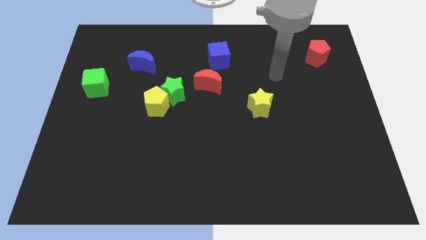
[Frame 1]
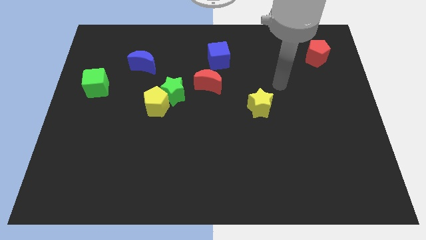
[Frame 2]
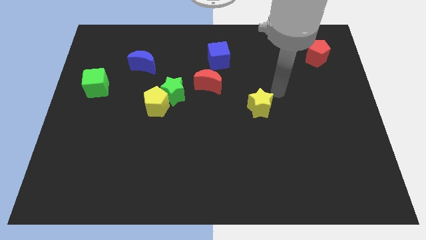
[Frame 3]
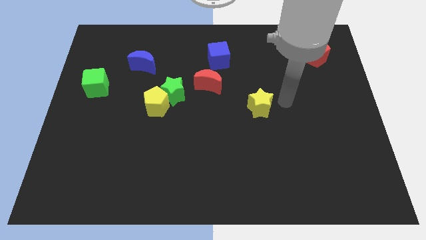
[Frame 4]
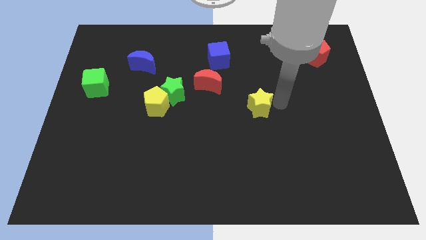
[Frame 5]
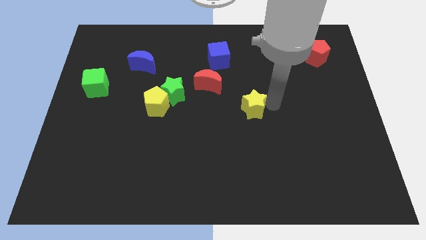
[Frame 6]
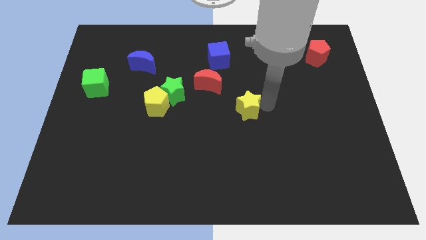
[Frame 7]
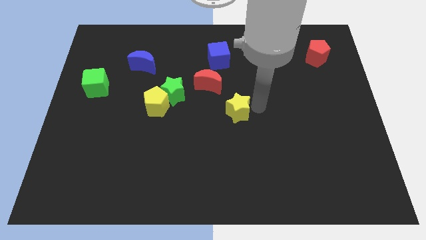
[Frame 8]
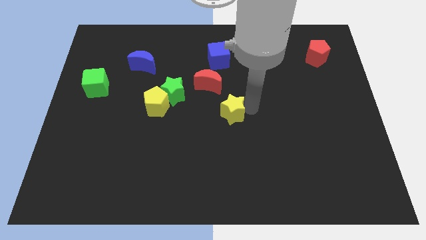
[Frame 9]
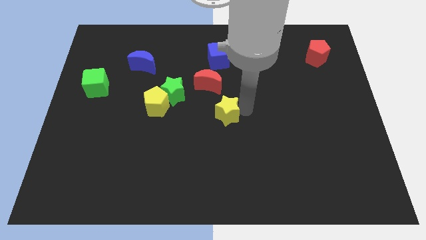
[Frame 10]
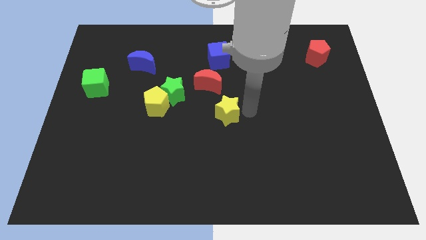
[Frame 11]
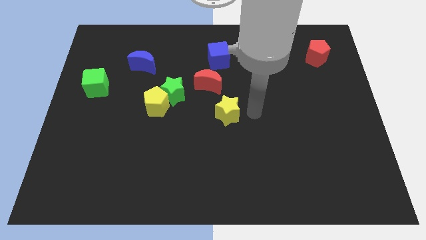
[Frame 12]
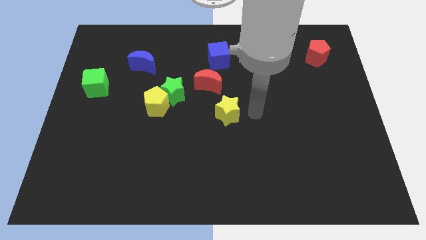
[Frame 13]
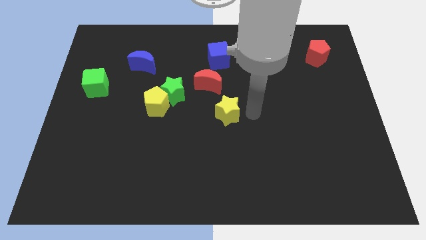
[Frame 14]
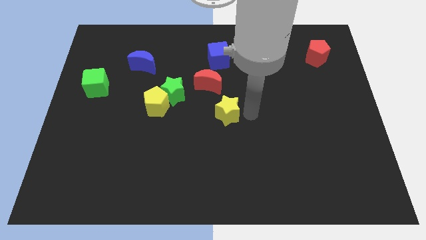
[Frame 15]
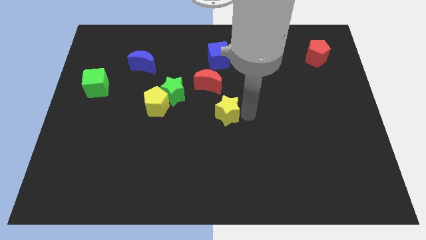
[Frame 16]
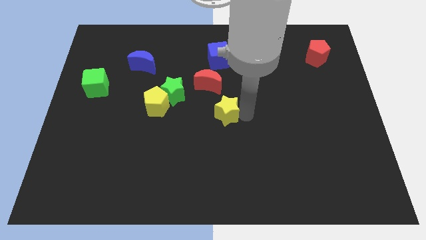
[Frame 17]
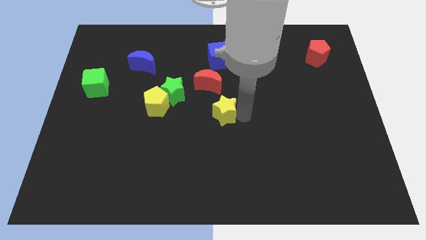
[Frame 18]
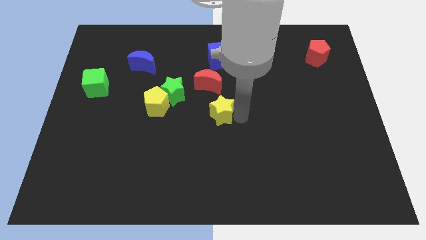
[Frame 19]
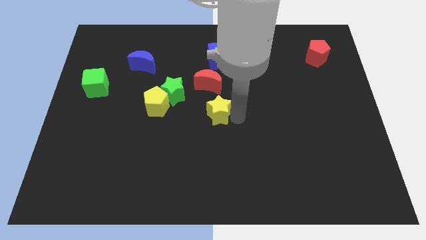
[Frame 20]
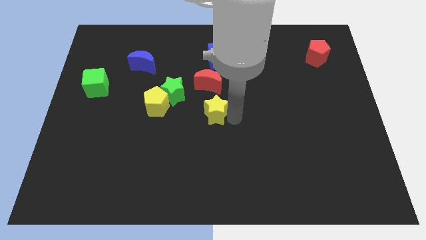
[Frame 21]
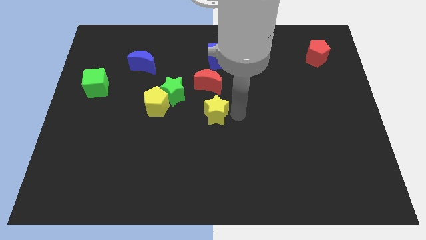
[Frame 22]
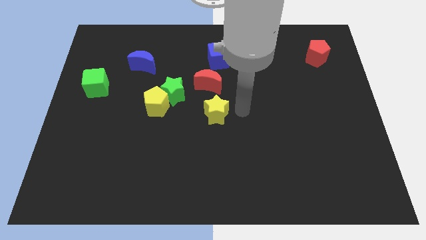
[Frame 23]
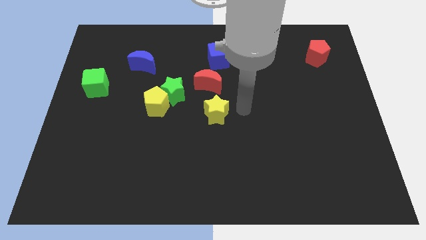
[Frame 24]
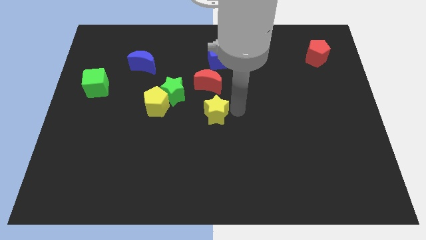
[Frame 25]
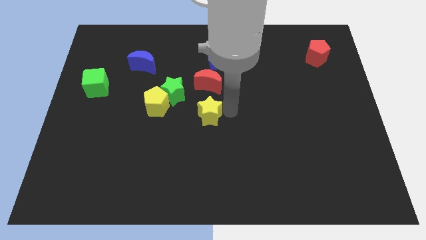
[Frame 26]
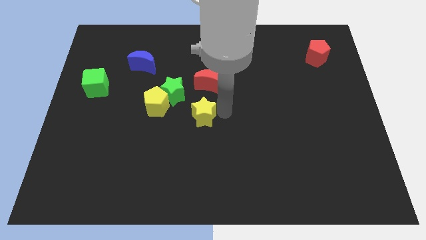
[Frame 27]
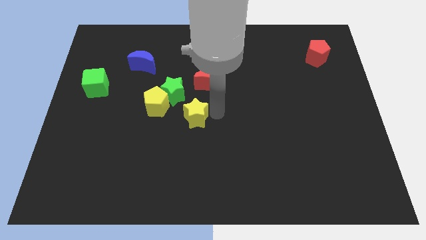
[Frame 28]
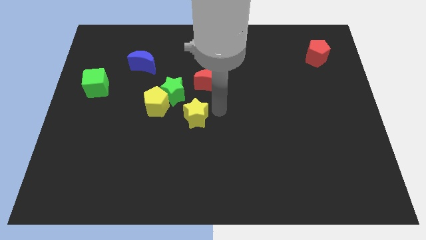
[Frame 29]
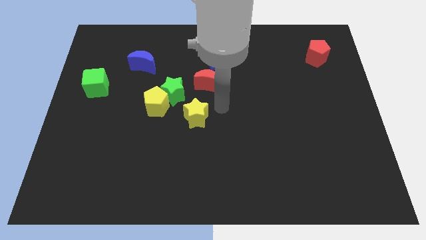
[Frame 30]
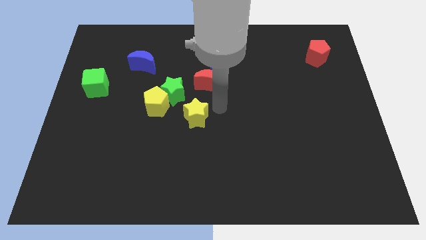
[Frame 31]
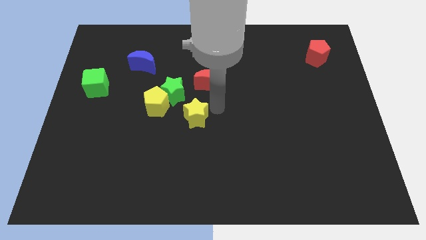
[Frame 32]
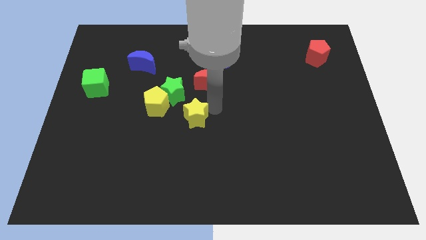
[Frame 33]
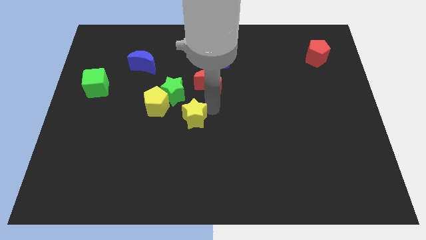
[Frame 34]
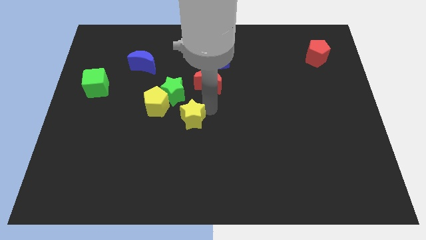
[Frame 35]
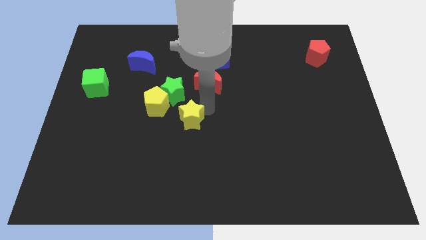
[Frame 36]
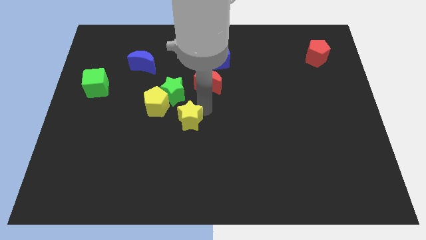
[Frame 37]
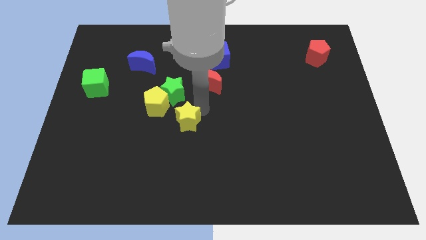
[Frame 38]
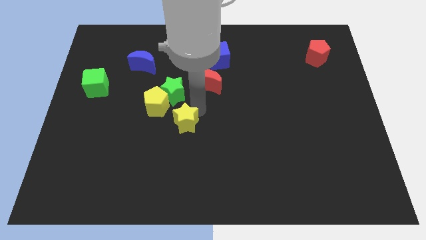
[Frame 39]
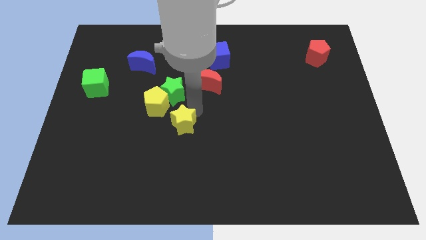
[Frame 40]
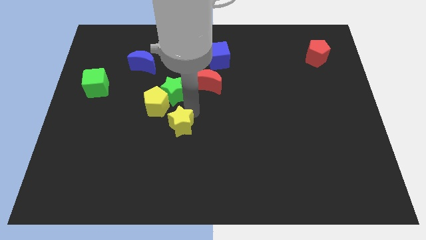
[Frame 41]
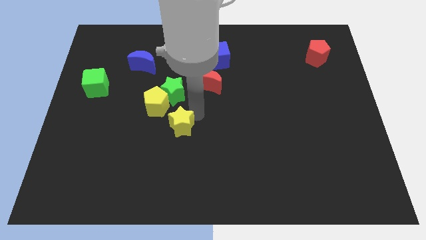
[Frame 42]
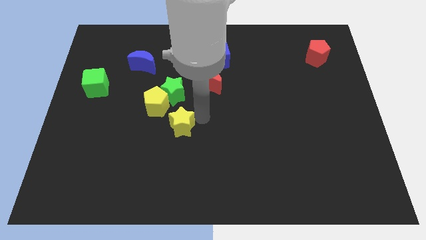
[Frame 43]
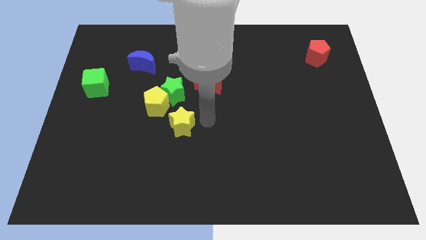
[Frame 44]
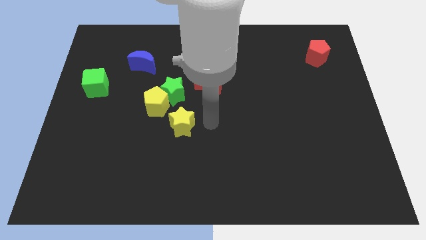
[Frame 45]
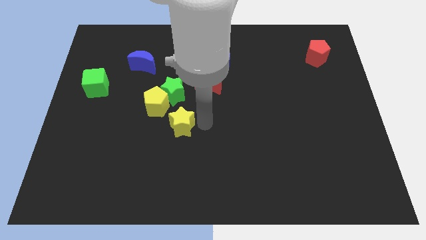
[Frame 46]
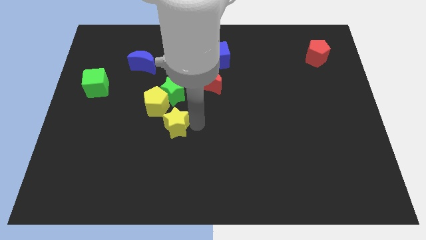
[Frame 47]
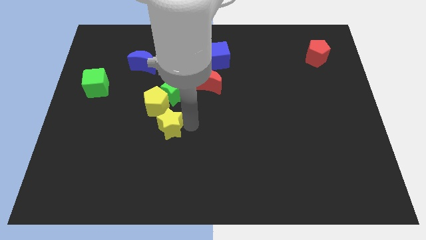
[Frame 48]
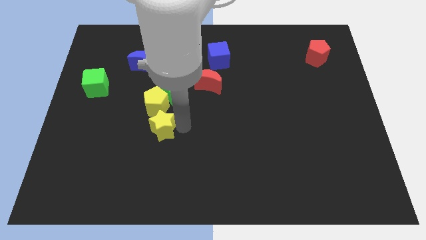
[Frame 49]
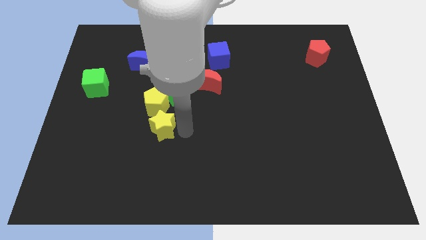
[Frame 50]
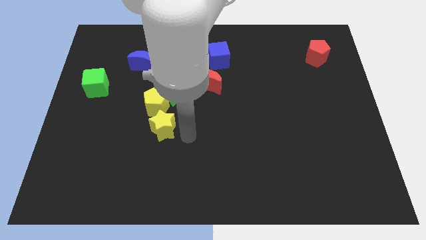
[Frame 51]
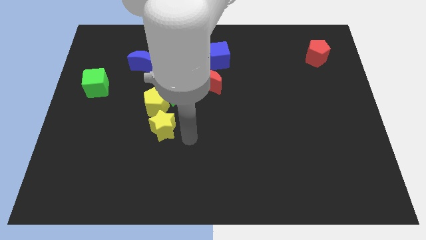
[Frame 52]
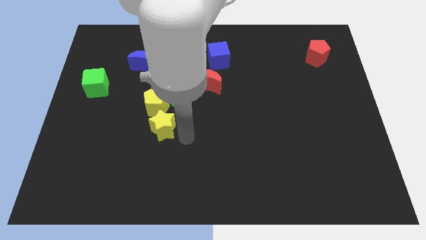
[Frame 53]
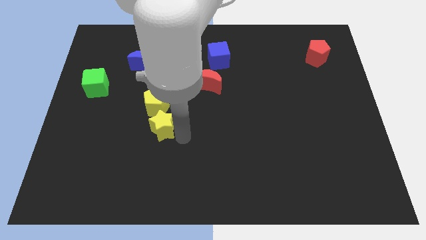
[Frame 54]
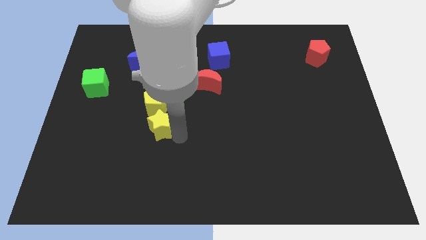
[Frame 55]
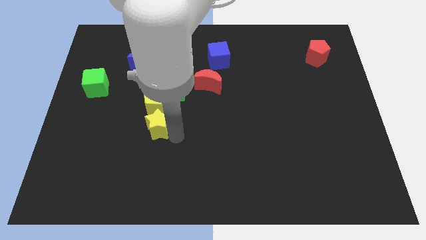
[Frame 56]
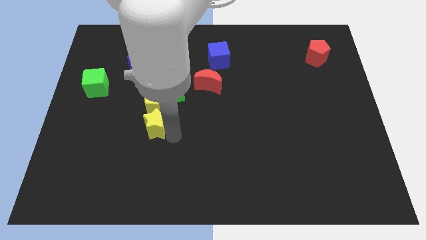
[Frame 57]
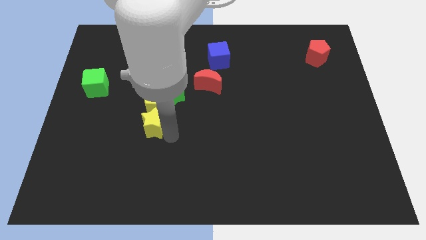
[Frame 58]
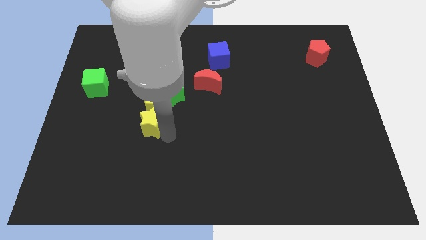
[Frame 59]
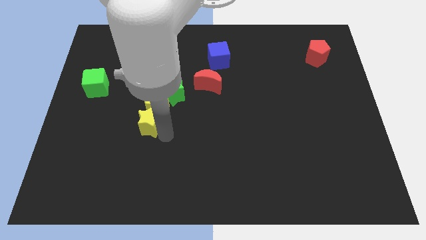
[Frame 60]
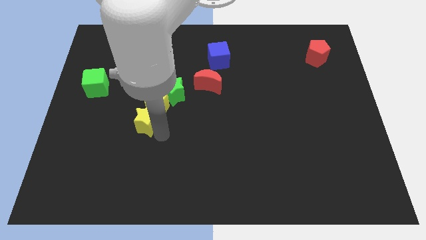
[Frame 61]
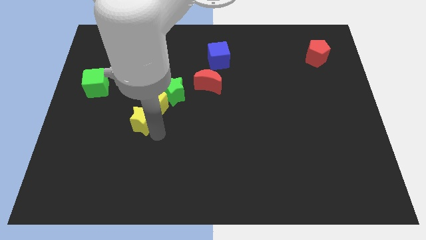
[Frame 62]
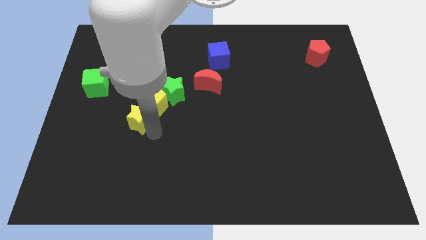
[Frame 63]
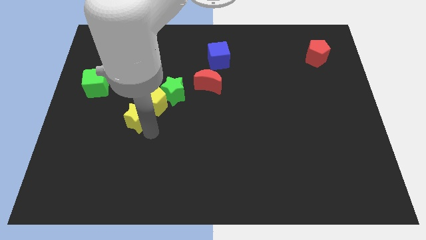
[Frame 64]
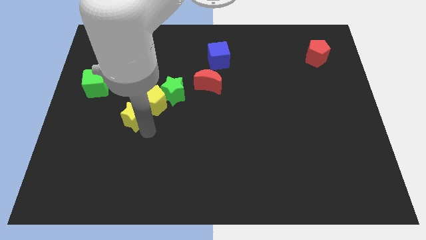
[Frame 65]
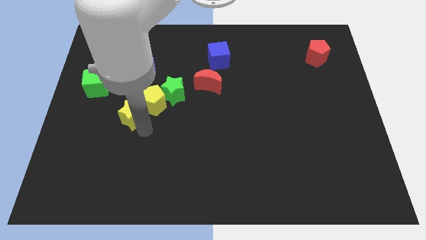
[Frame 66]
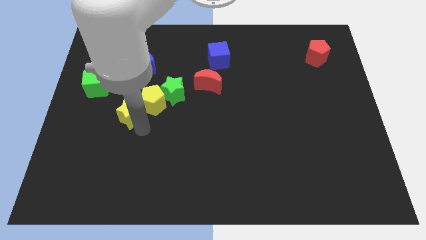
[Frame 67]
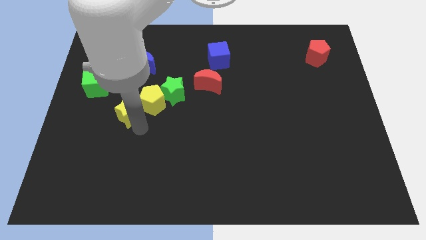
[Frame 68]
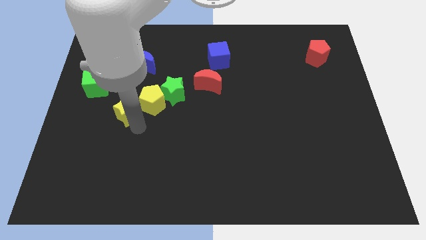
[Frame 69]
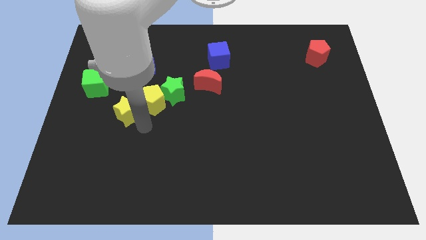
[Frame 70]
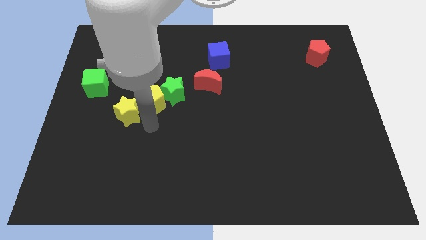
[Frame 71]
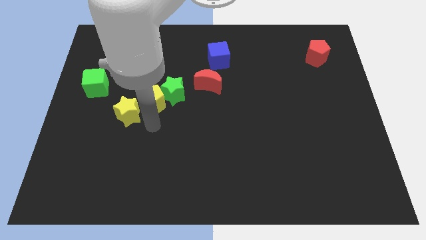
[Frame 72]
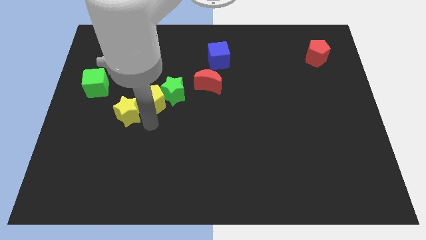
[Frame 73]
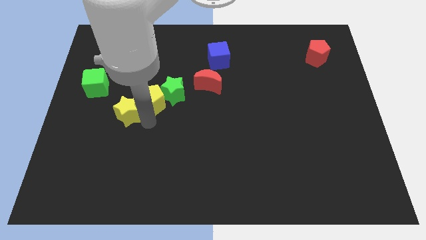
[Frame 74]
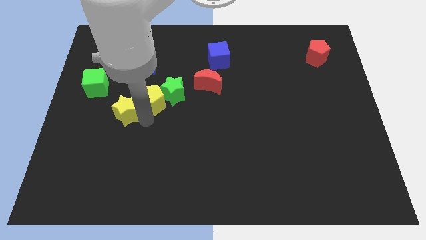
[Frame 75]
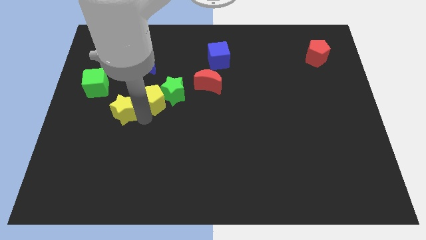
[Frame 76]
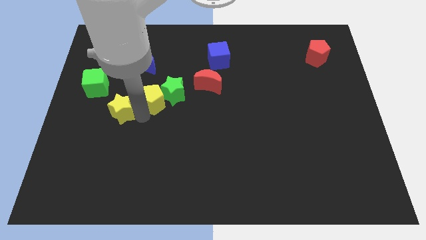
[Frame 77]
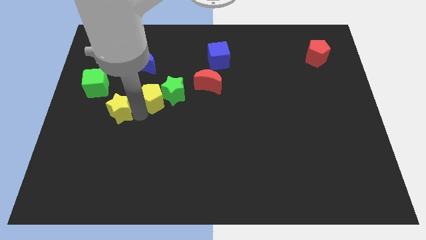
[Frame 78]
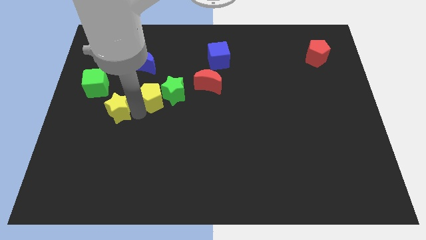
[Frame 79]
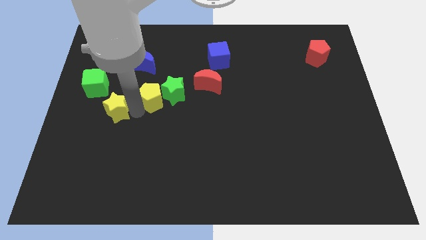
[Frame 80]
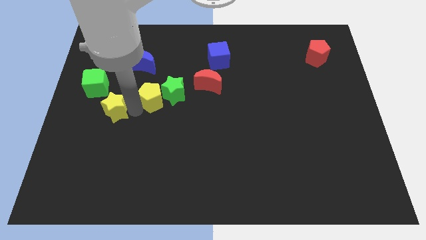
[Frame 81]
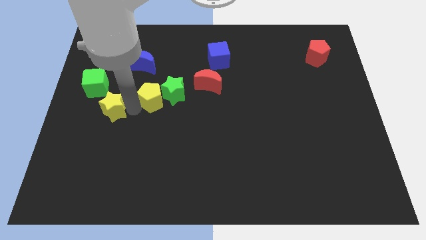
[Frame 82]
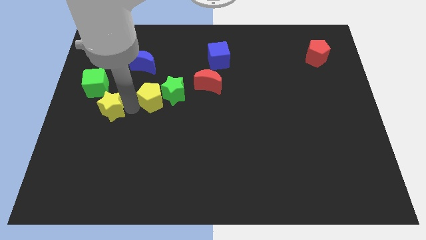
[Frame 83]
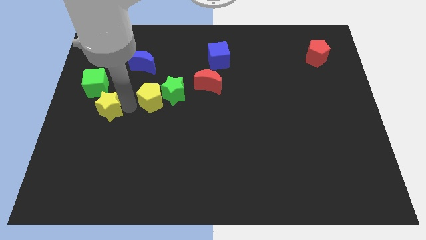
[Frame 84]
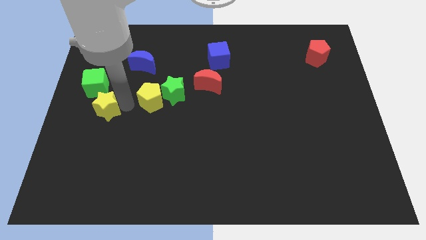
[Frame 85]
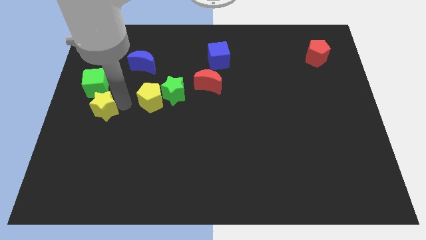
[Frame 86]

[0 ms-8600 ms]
put the yellow star to the left side
